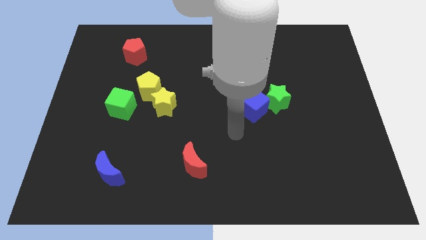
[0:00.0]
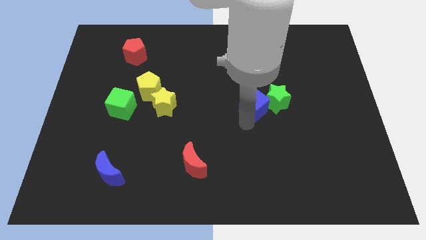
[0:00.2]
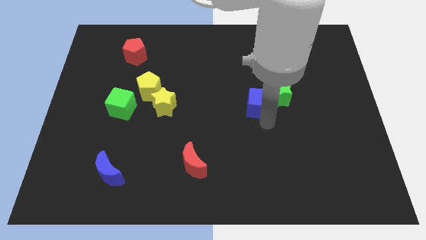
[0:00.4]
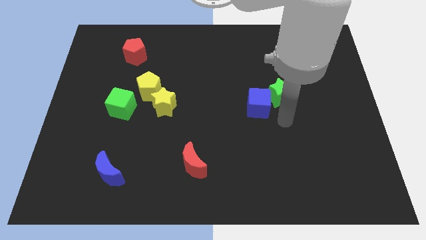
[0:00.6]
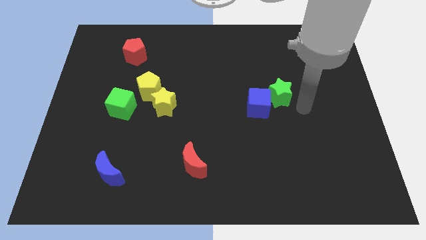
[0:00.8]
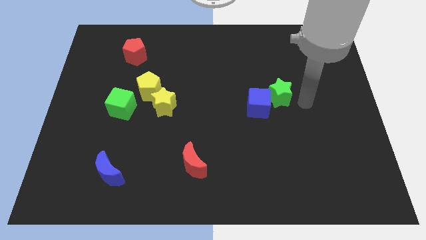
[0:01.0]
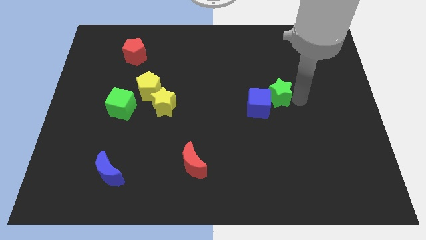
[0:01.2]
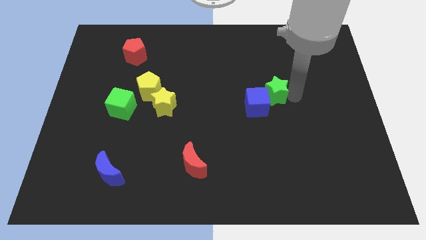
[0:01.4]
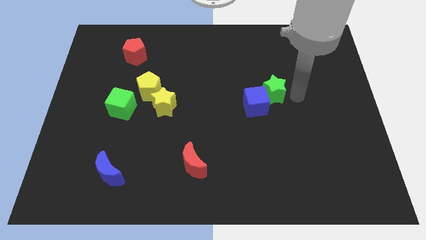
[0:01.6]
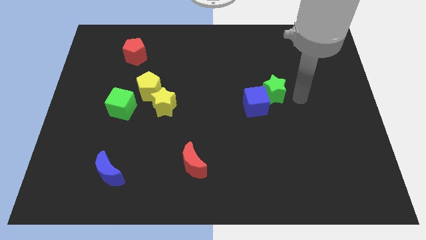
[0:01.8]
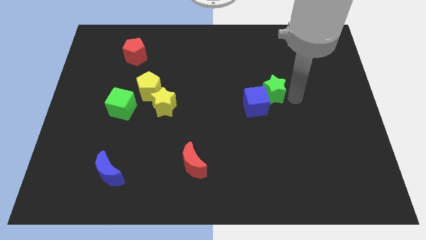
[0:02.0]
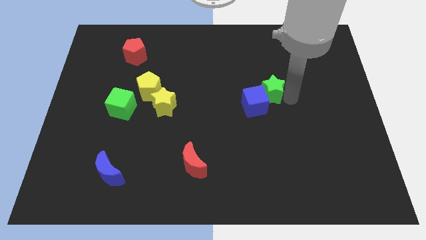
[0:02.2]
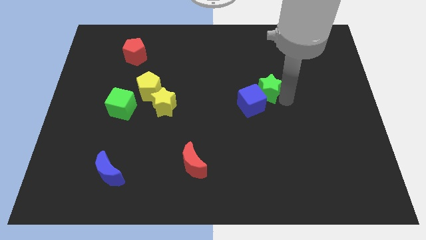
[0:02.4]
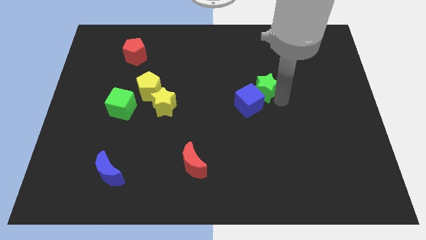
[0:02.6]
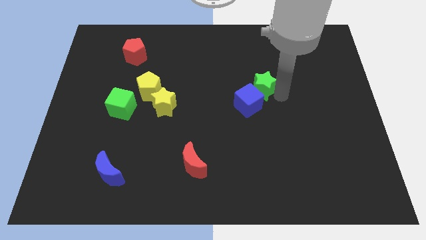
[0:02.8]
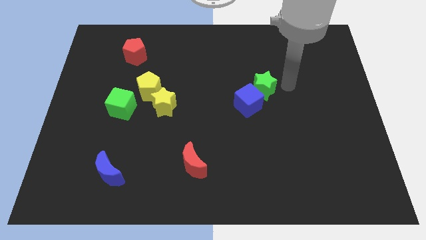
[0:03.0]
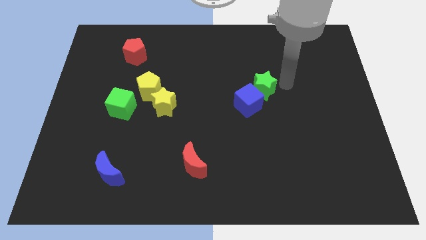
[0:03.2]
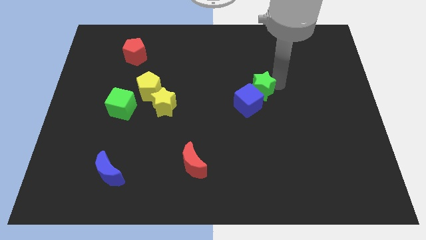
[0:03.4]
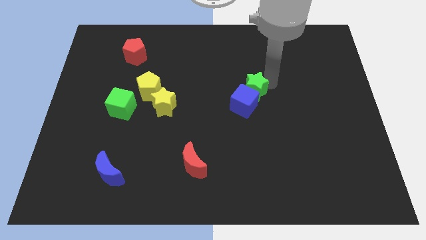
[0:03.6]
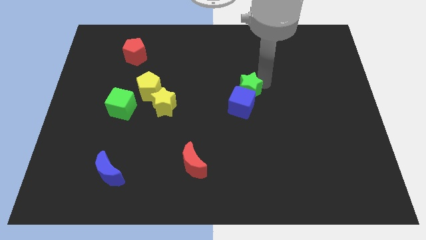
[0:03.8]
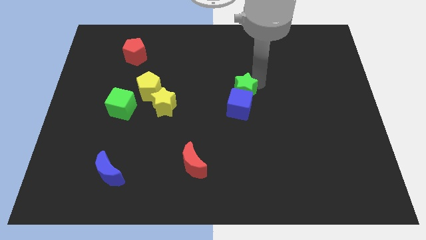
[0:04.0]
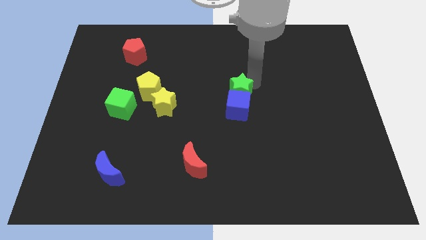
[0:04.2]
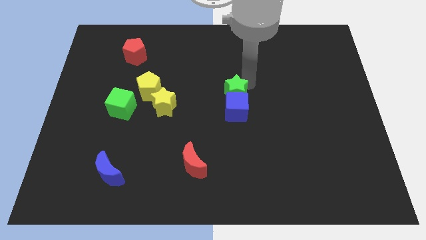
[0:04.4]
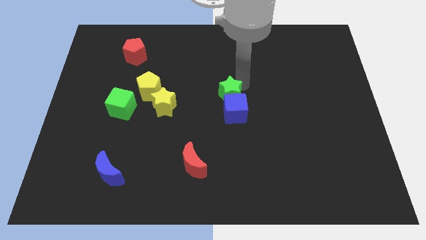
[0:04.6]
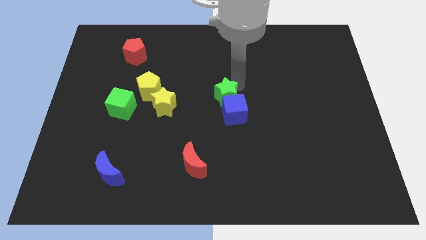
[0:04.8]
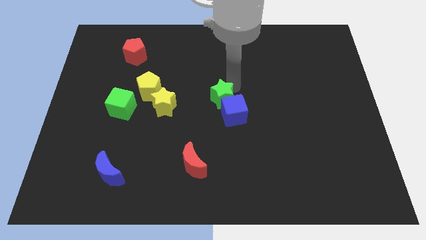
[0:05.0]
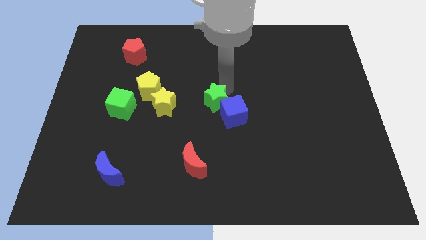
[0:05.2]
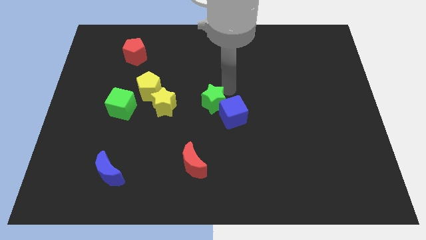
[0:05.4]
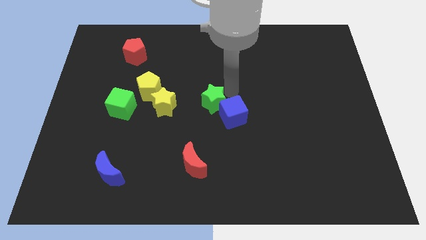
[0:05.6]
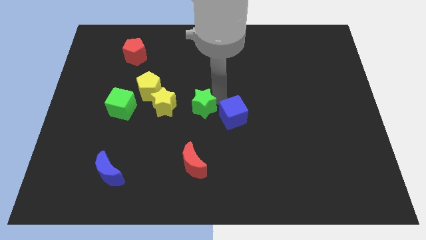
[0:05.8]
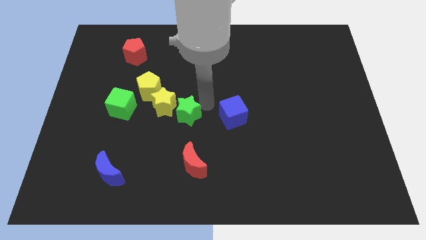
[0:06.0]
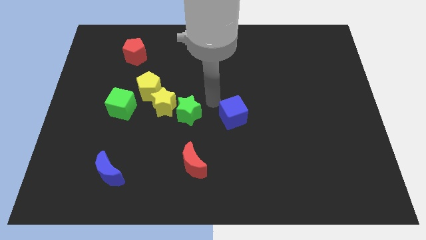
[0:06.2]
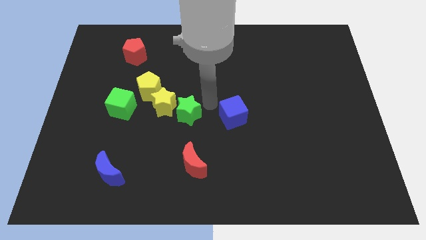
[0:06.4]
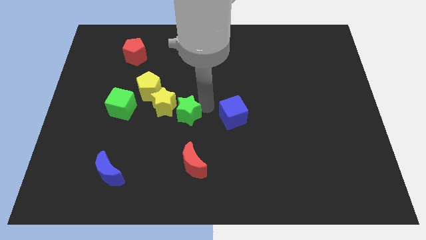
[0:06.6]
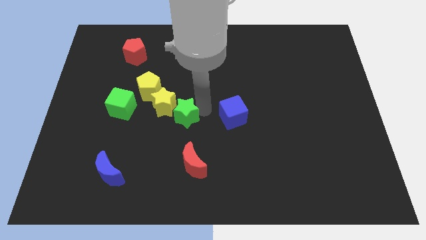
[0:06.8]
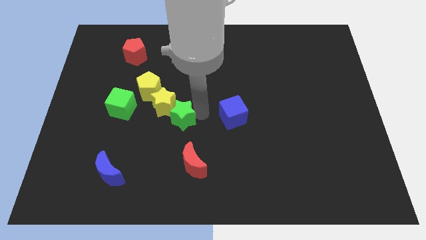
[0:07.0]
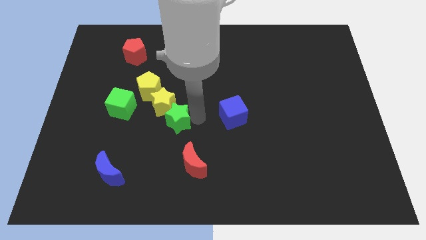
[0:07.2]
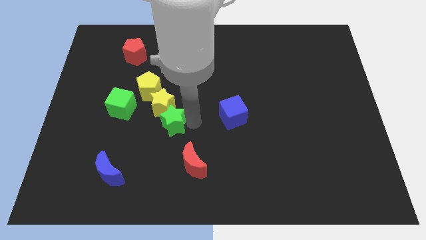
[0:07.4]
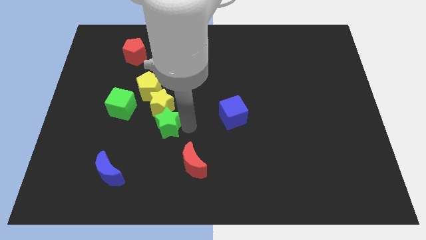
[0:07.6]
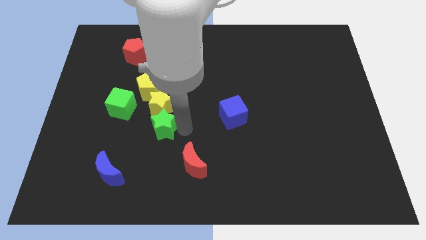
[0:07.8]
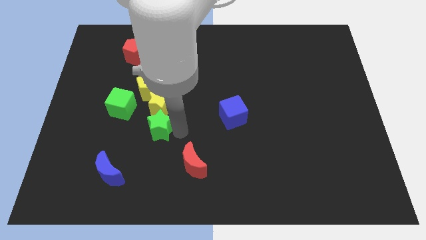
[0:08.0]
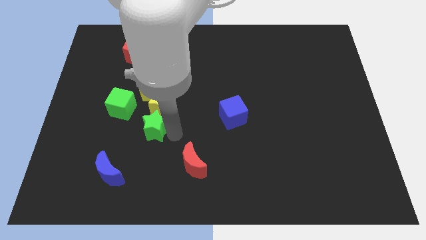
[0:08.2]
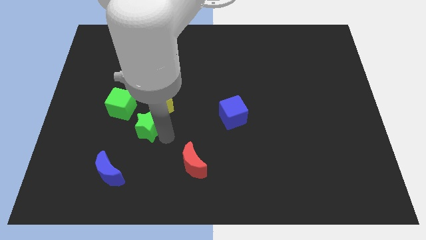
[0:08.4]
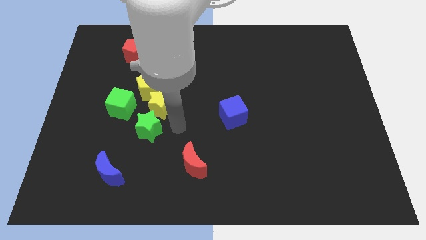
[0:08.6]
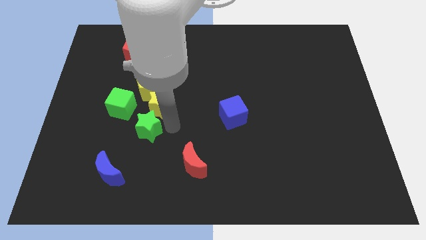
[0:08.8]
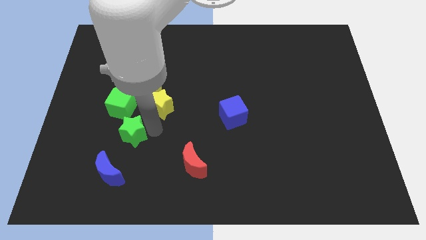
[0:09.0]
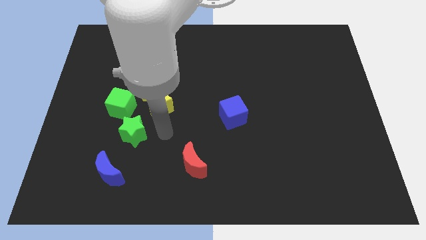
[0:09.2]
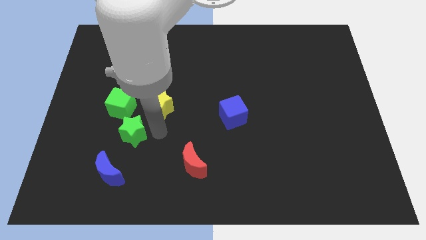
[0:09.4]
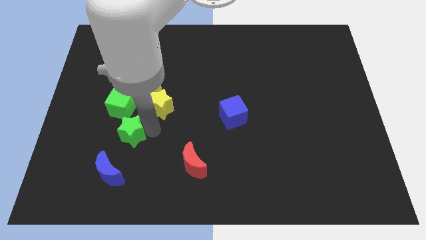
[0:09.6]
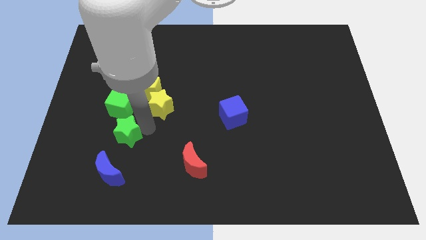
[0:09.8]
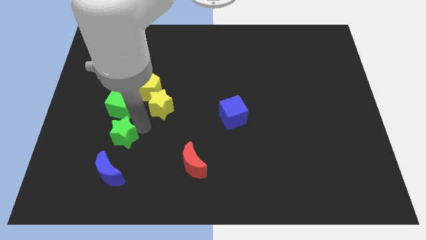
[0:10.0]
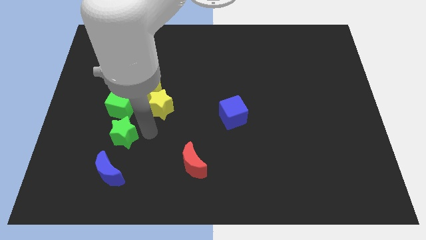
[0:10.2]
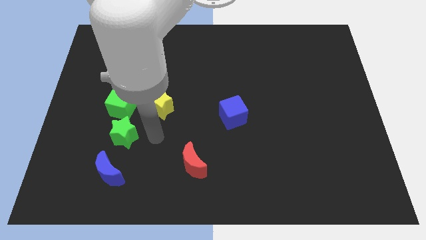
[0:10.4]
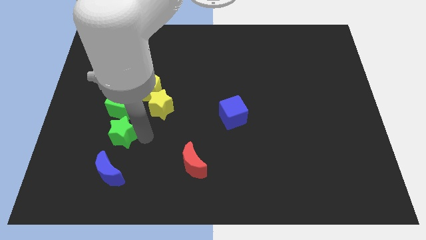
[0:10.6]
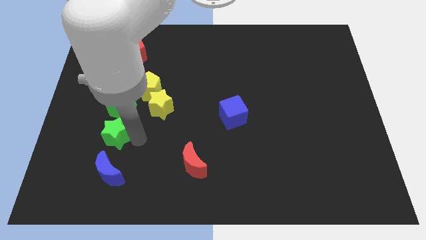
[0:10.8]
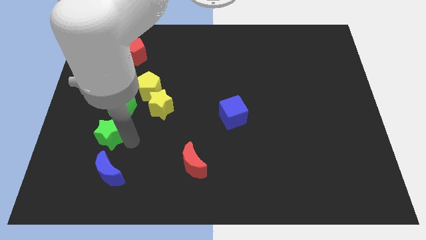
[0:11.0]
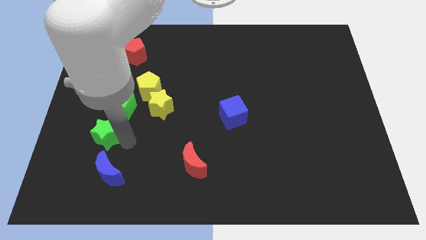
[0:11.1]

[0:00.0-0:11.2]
put the green star diagonally down and to the left of the green cube

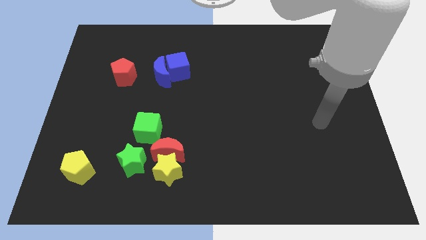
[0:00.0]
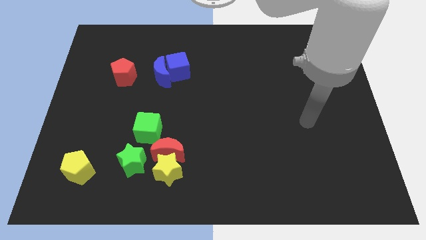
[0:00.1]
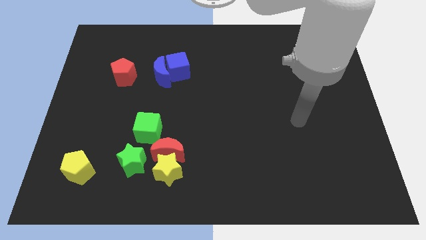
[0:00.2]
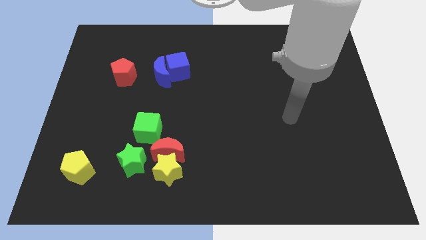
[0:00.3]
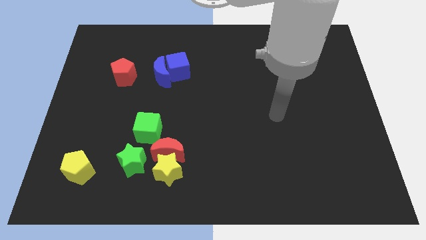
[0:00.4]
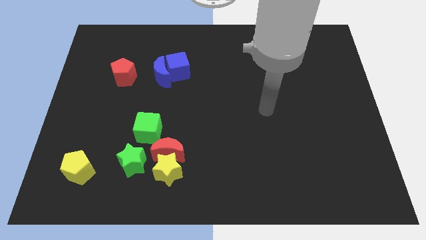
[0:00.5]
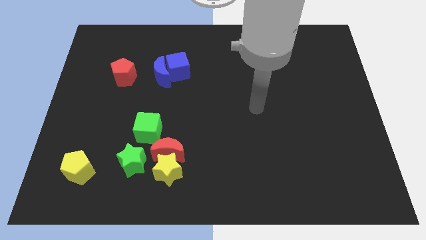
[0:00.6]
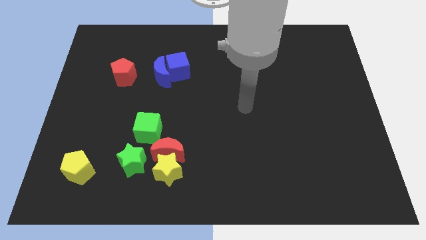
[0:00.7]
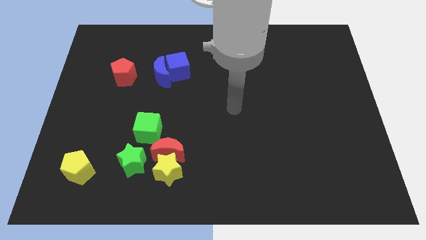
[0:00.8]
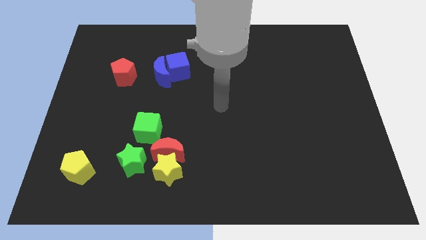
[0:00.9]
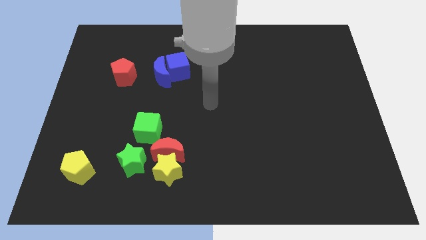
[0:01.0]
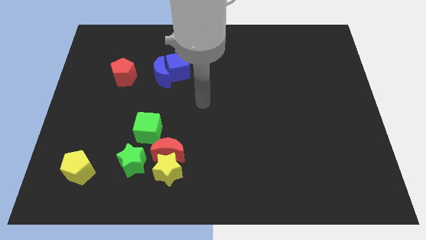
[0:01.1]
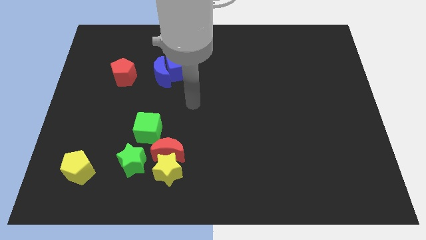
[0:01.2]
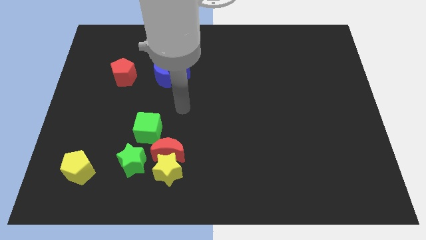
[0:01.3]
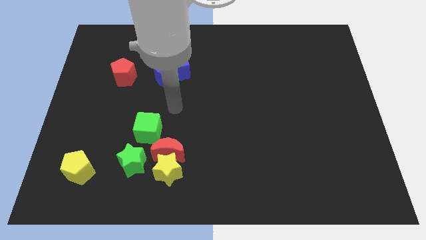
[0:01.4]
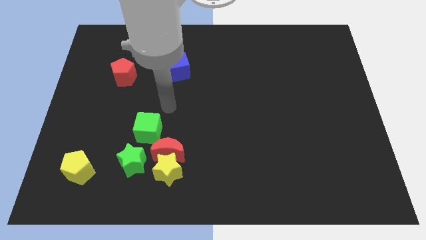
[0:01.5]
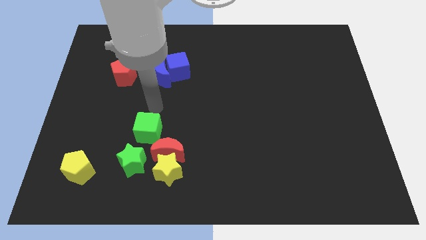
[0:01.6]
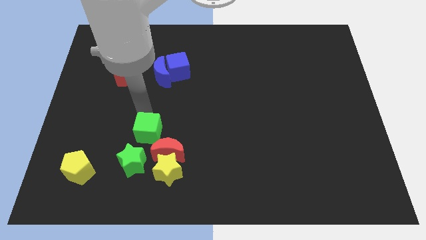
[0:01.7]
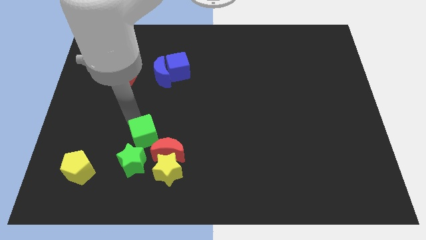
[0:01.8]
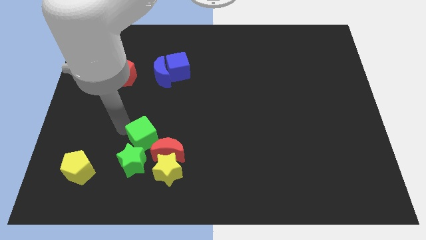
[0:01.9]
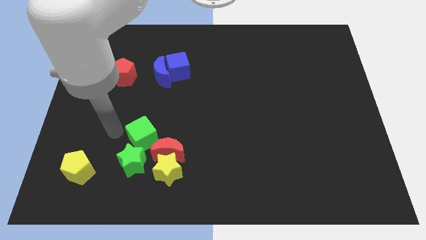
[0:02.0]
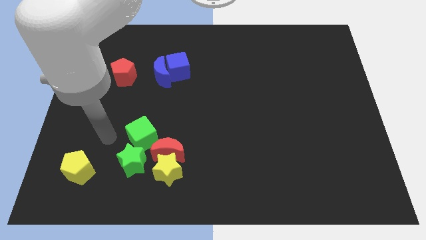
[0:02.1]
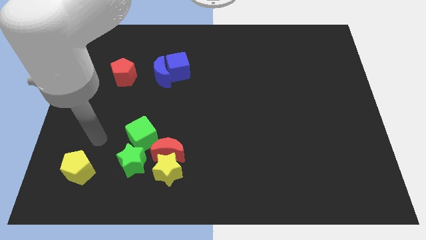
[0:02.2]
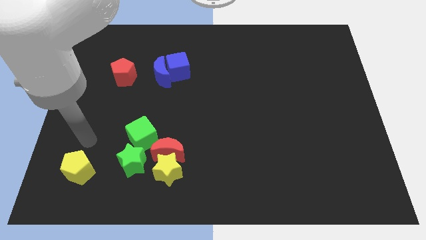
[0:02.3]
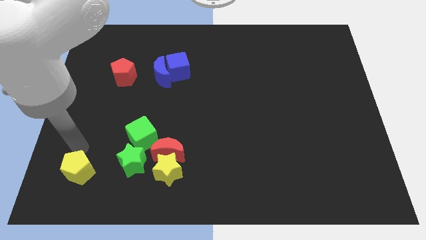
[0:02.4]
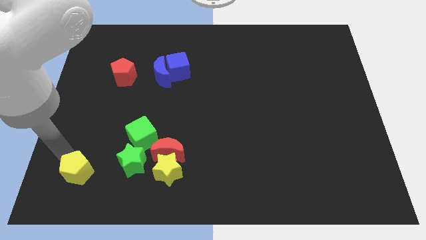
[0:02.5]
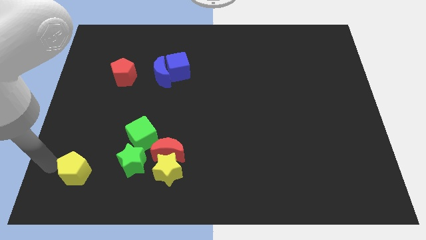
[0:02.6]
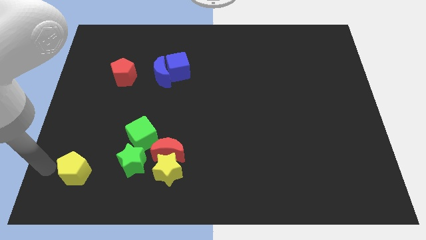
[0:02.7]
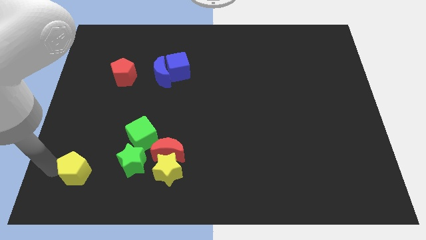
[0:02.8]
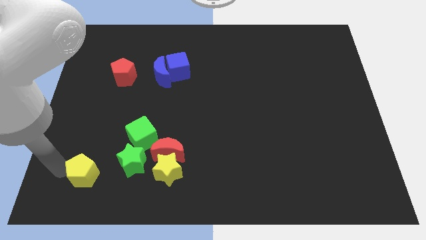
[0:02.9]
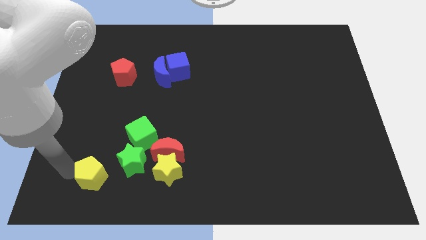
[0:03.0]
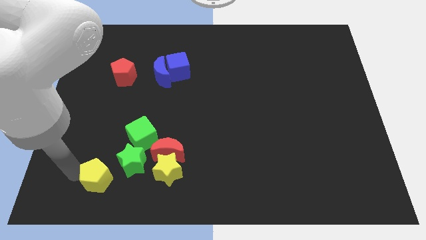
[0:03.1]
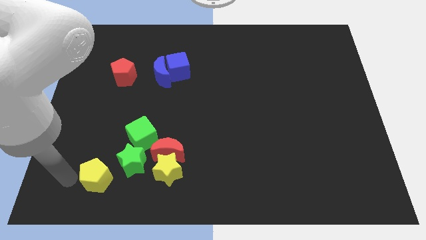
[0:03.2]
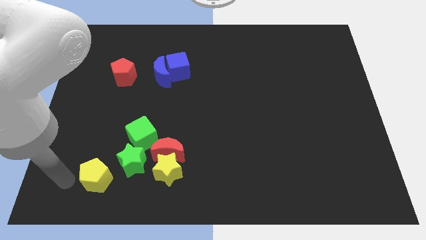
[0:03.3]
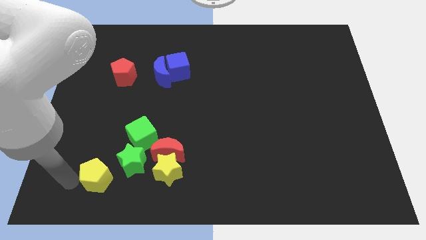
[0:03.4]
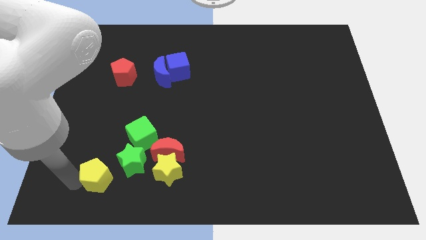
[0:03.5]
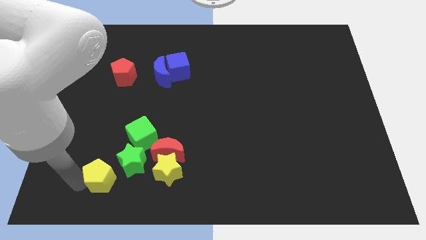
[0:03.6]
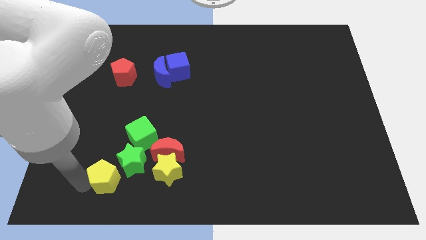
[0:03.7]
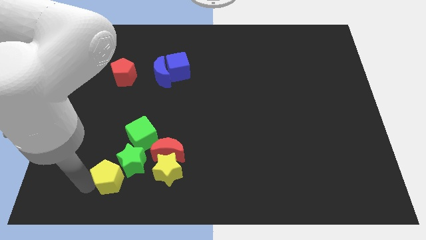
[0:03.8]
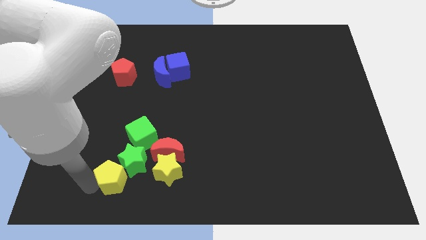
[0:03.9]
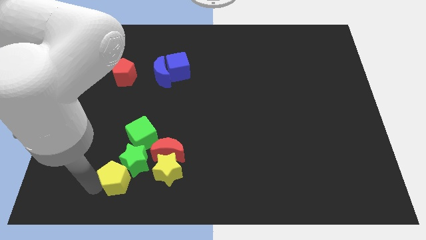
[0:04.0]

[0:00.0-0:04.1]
move the yellow pentagon to the bottom left side of the red moon
